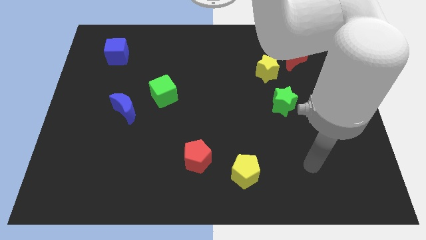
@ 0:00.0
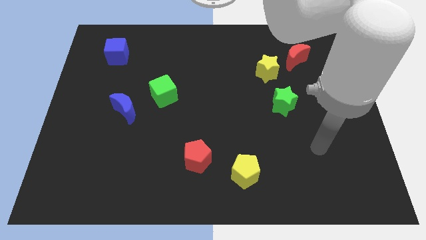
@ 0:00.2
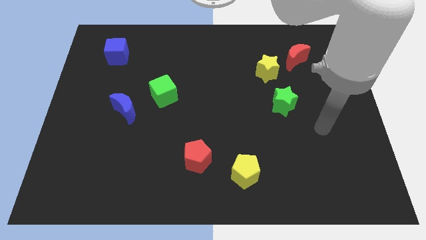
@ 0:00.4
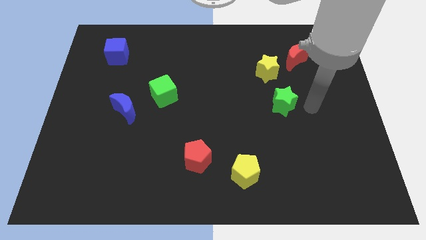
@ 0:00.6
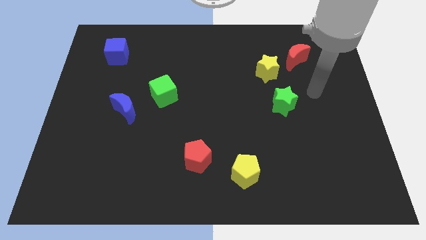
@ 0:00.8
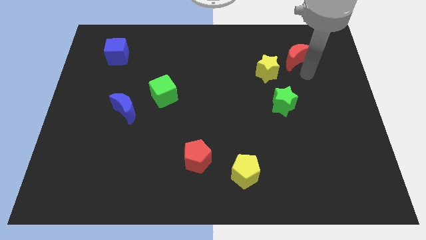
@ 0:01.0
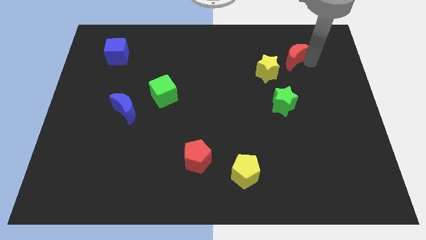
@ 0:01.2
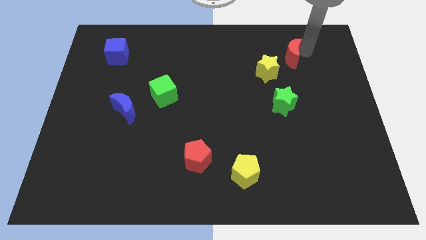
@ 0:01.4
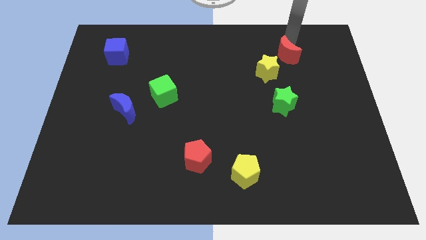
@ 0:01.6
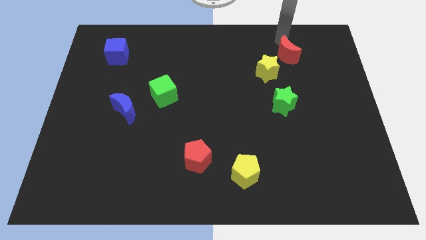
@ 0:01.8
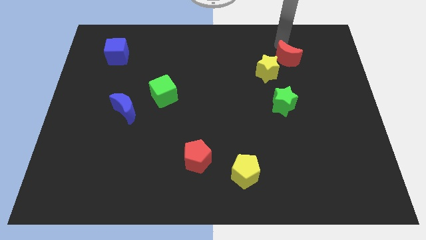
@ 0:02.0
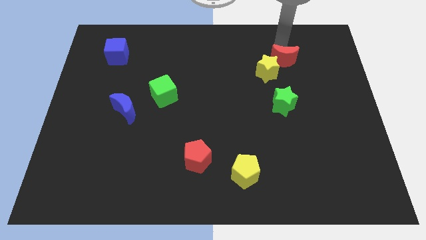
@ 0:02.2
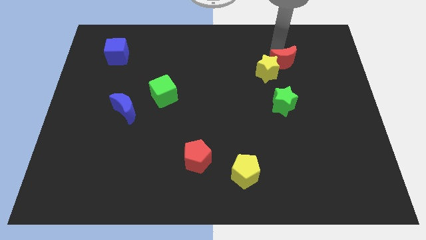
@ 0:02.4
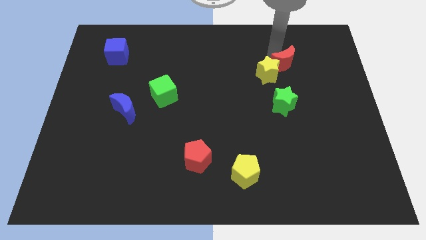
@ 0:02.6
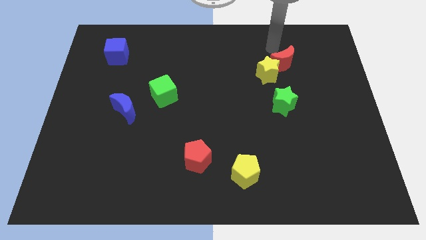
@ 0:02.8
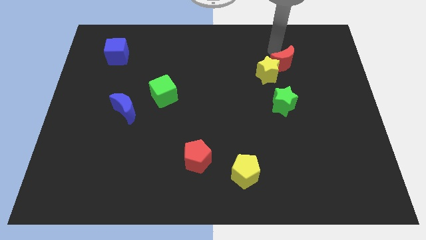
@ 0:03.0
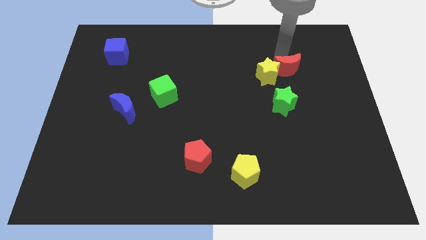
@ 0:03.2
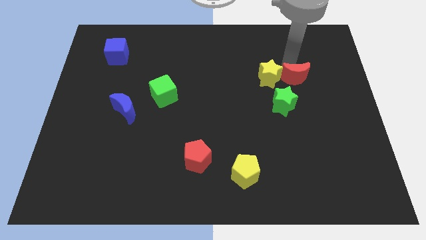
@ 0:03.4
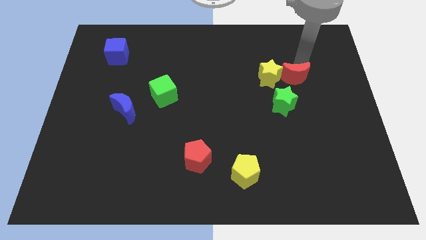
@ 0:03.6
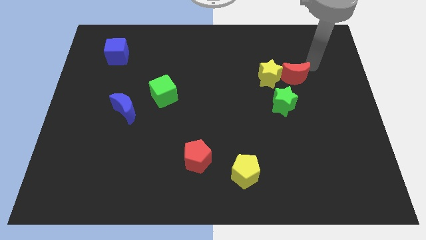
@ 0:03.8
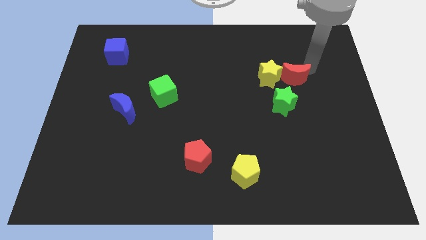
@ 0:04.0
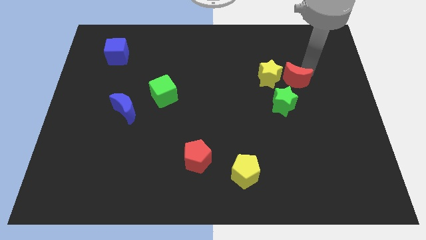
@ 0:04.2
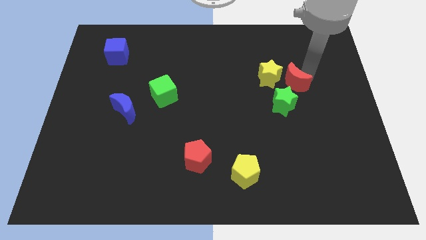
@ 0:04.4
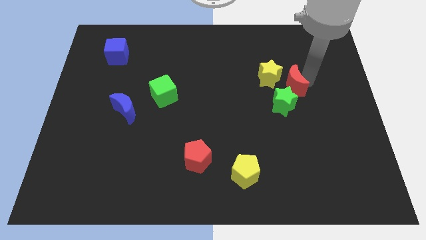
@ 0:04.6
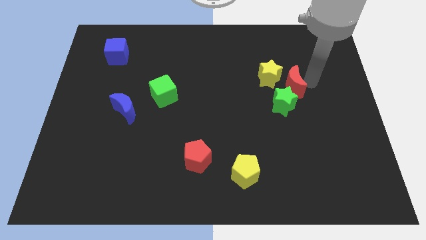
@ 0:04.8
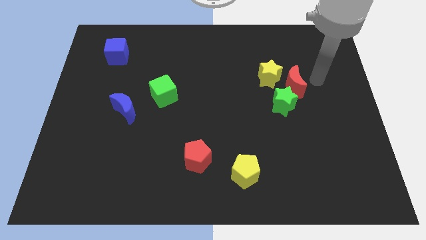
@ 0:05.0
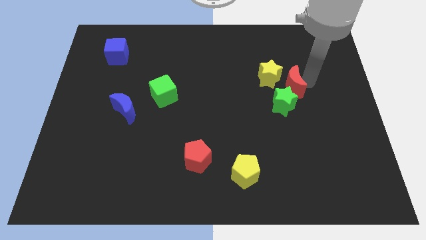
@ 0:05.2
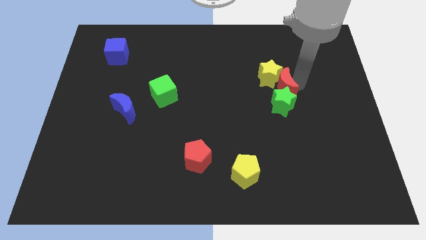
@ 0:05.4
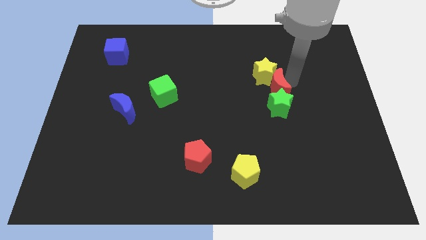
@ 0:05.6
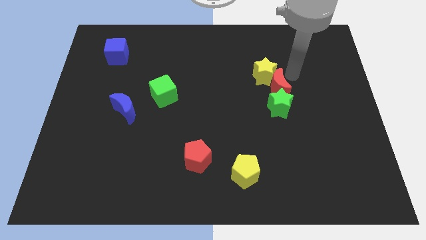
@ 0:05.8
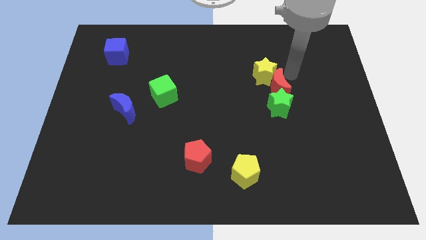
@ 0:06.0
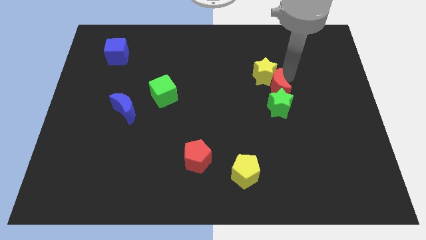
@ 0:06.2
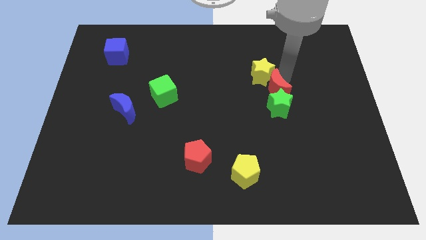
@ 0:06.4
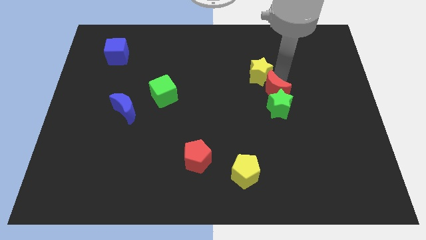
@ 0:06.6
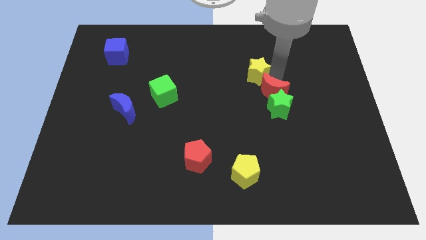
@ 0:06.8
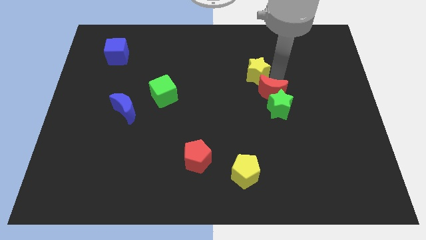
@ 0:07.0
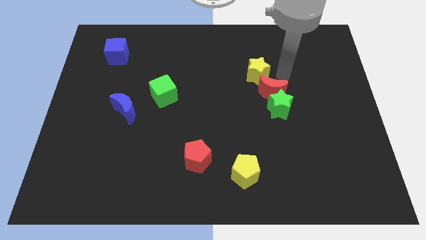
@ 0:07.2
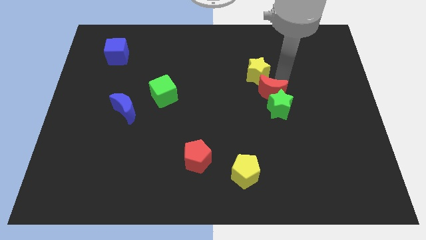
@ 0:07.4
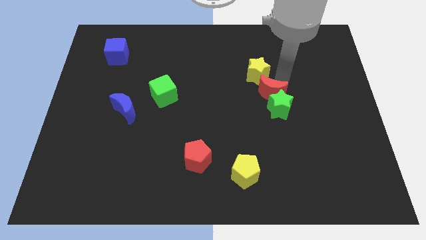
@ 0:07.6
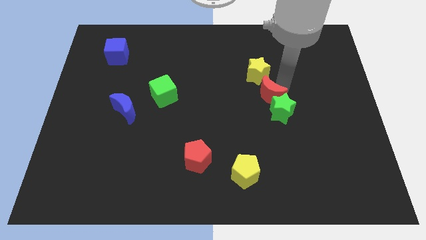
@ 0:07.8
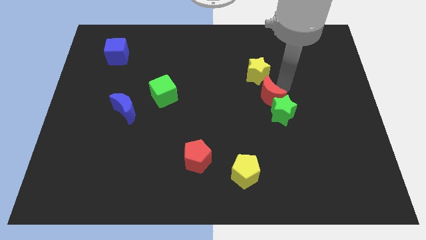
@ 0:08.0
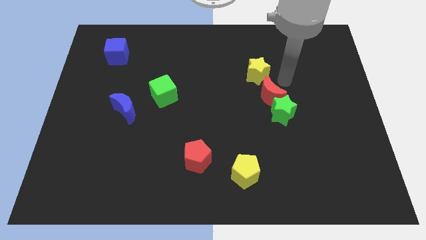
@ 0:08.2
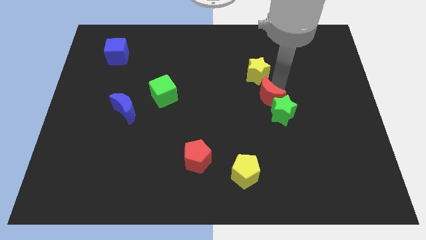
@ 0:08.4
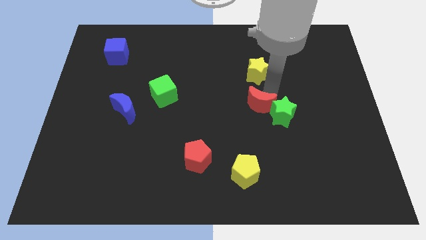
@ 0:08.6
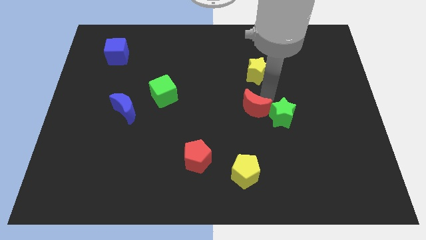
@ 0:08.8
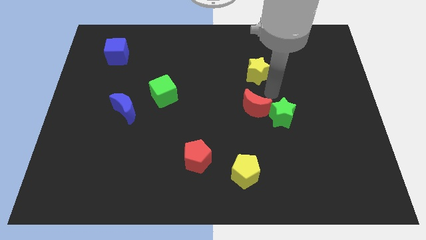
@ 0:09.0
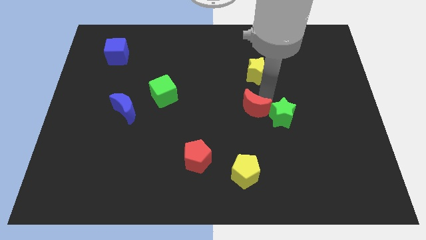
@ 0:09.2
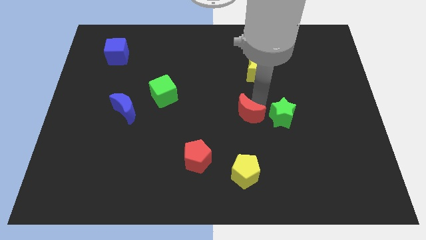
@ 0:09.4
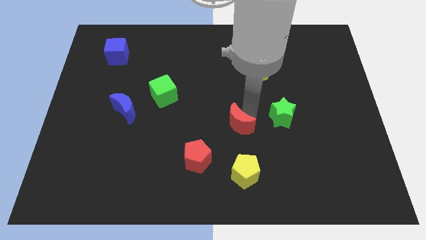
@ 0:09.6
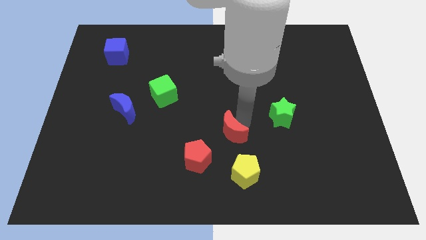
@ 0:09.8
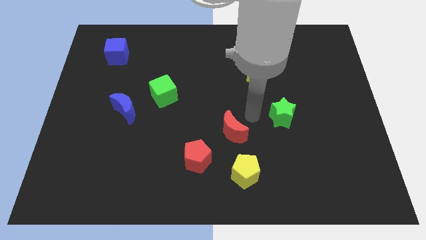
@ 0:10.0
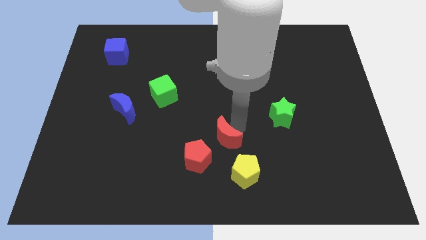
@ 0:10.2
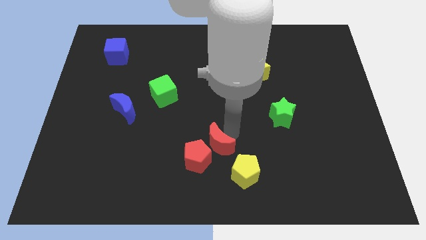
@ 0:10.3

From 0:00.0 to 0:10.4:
push the red moon next to the red pentagon

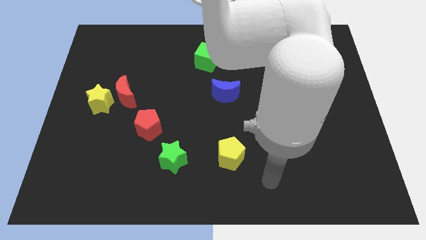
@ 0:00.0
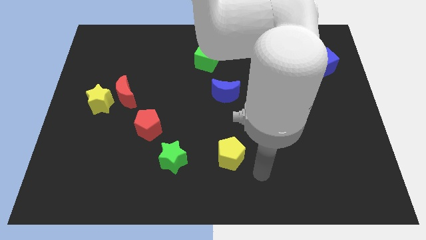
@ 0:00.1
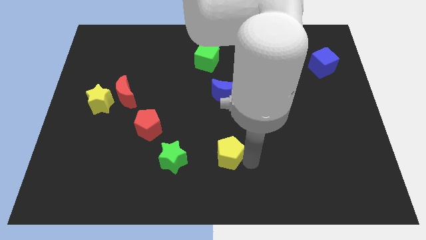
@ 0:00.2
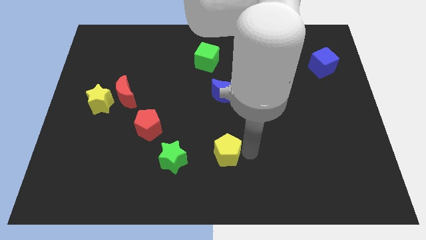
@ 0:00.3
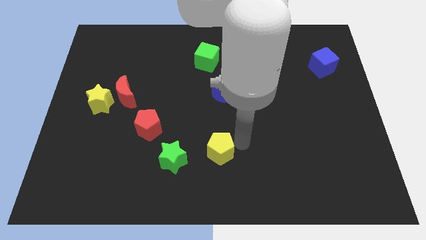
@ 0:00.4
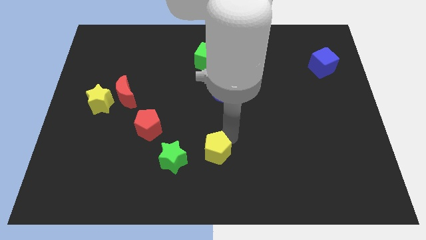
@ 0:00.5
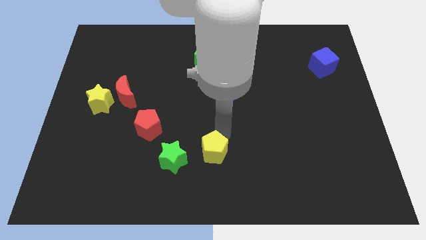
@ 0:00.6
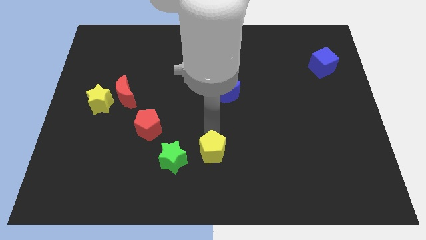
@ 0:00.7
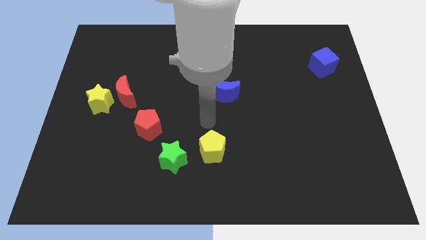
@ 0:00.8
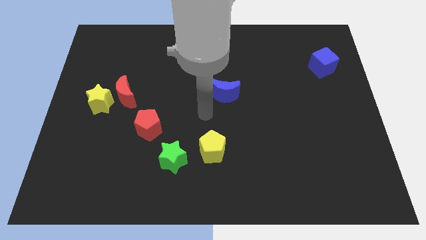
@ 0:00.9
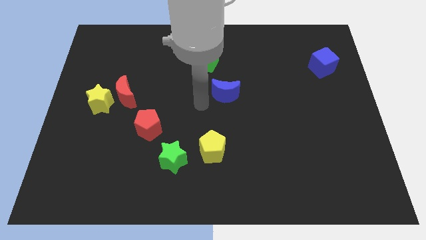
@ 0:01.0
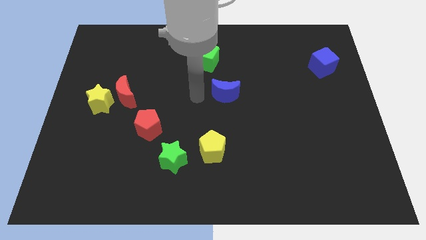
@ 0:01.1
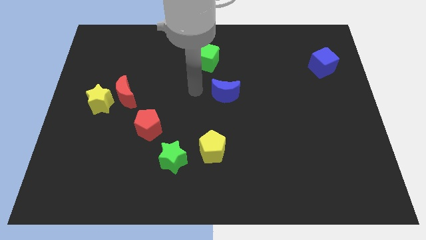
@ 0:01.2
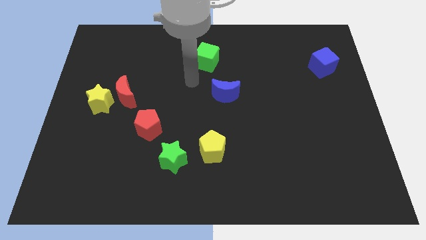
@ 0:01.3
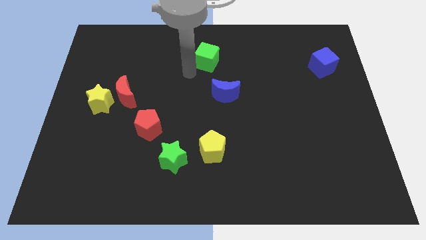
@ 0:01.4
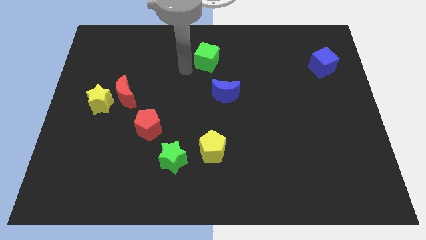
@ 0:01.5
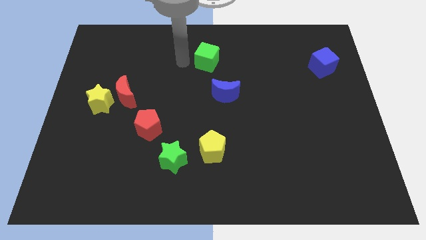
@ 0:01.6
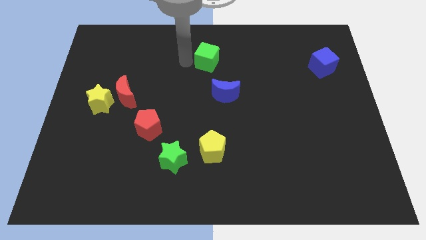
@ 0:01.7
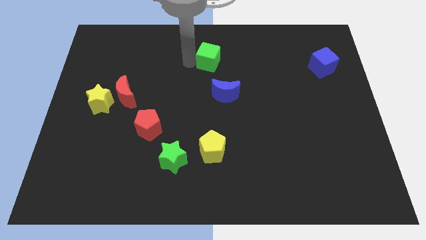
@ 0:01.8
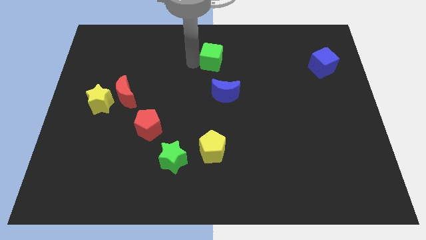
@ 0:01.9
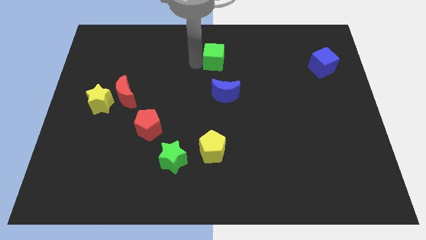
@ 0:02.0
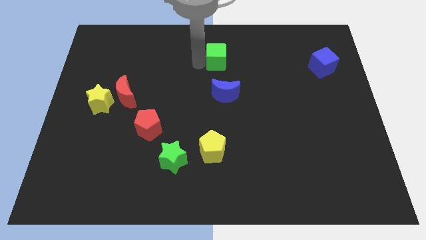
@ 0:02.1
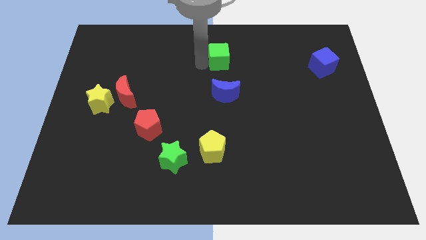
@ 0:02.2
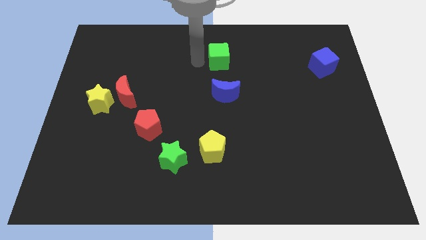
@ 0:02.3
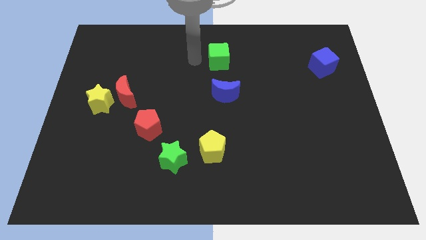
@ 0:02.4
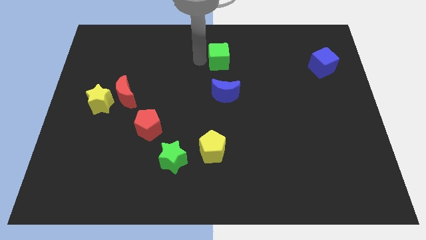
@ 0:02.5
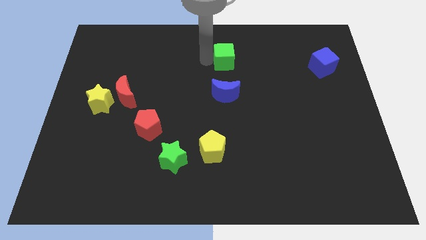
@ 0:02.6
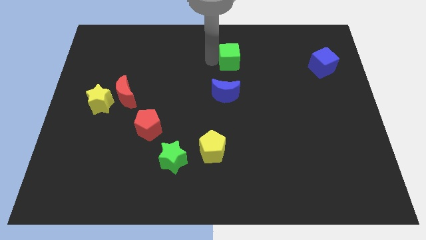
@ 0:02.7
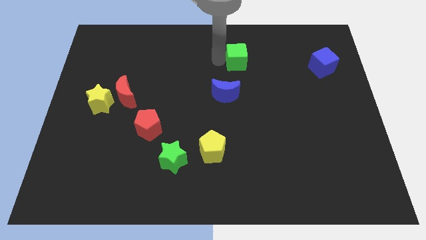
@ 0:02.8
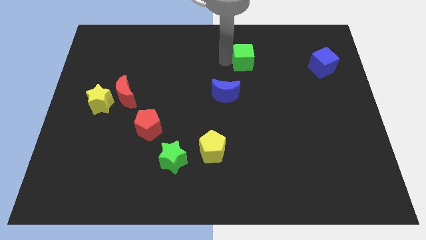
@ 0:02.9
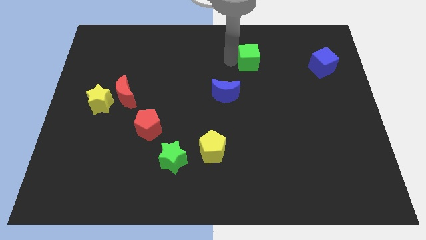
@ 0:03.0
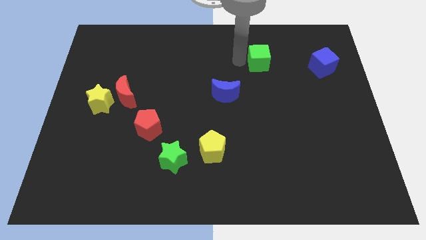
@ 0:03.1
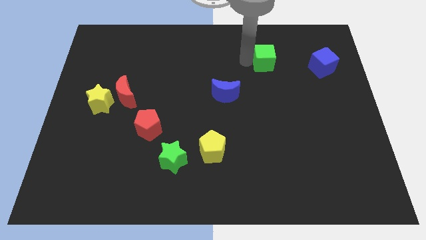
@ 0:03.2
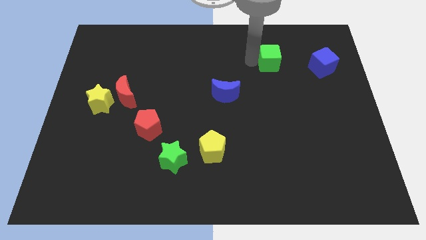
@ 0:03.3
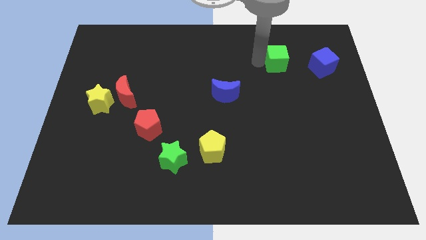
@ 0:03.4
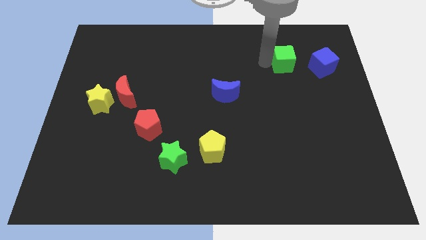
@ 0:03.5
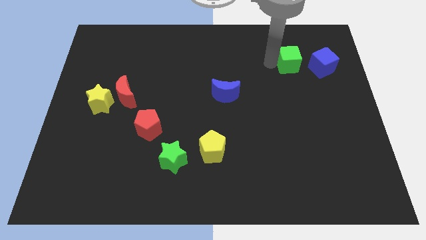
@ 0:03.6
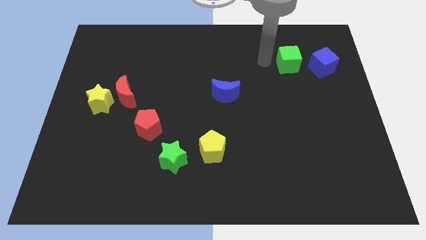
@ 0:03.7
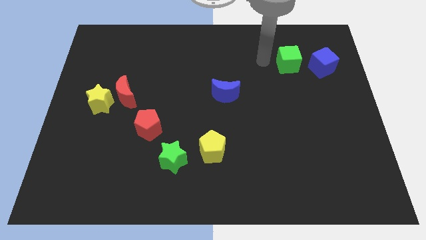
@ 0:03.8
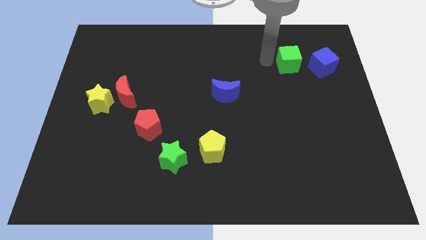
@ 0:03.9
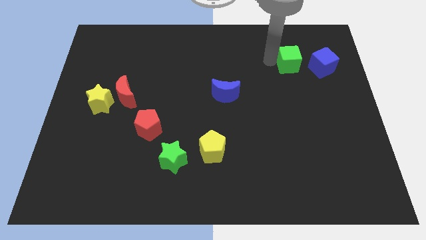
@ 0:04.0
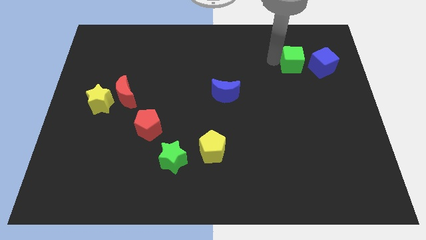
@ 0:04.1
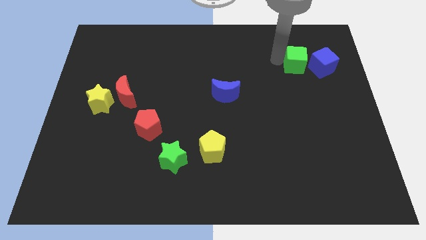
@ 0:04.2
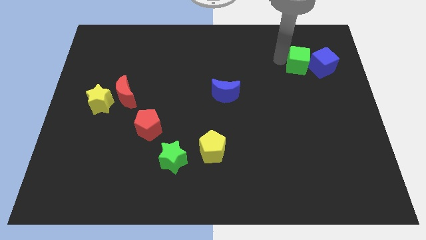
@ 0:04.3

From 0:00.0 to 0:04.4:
put the green cube to the blue cube
